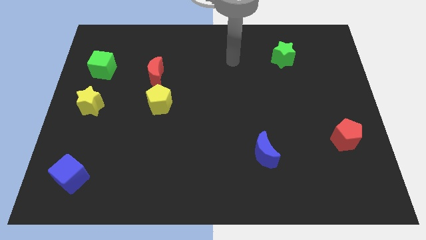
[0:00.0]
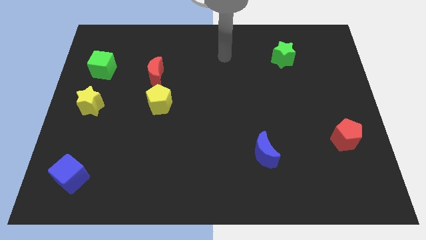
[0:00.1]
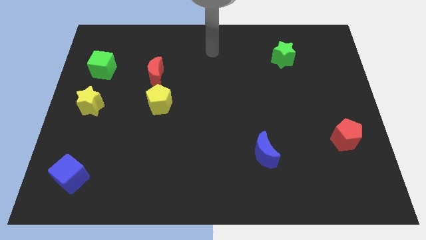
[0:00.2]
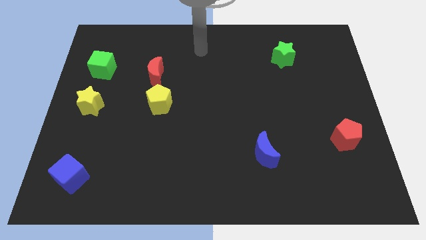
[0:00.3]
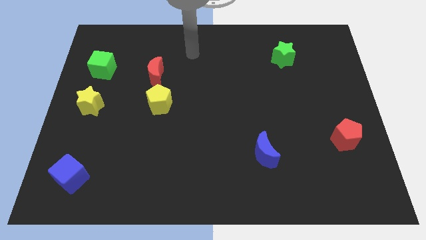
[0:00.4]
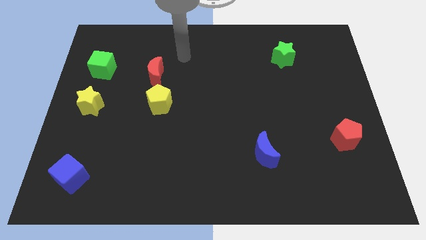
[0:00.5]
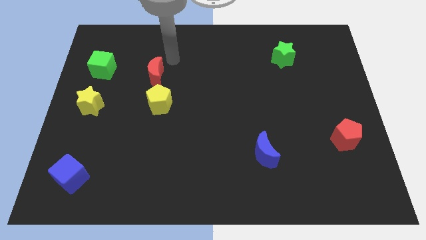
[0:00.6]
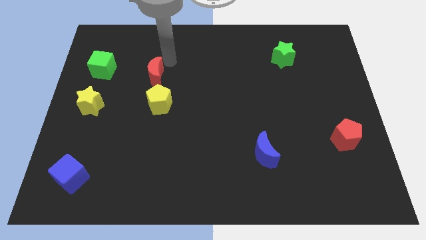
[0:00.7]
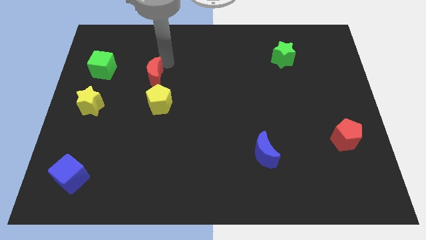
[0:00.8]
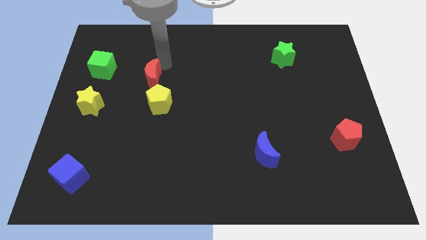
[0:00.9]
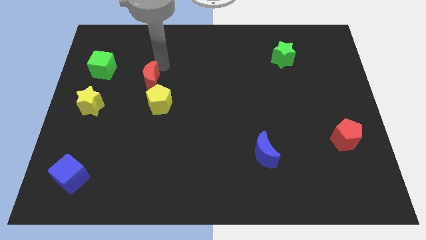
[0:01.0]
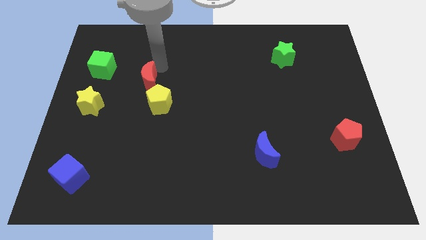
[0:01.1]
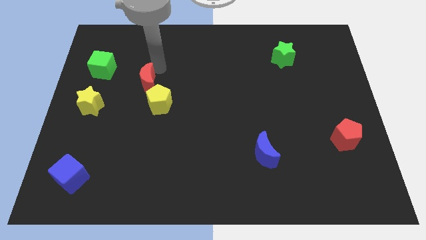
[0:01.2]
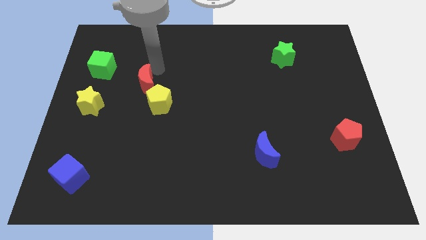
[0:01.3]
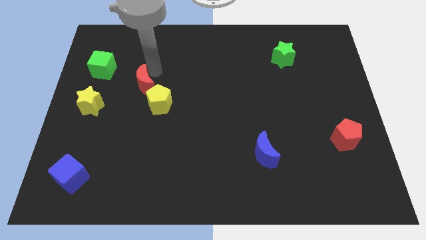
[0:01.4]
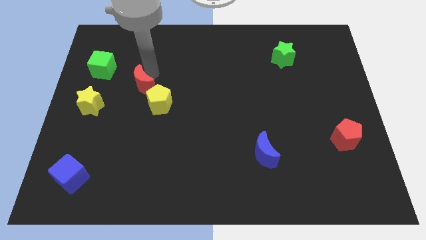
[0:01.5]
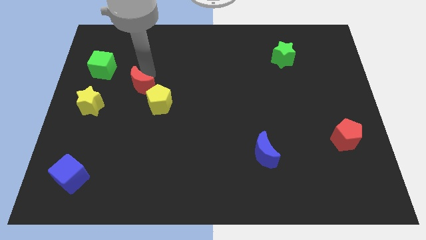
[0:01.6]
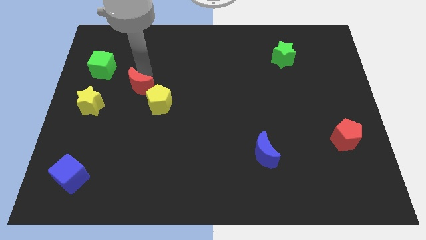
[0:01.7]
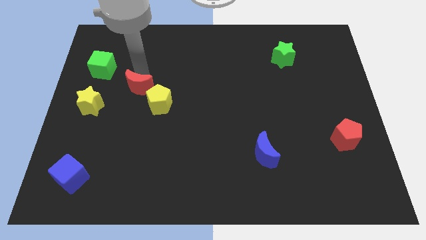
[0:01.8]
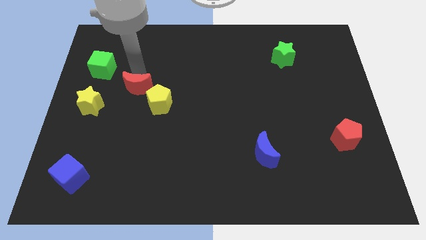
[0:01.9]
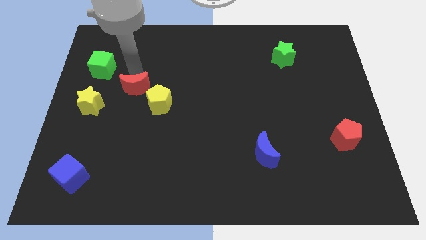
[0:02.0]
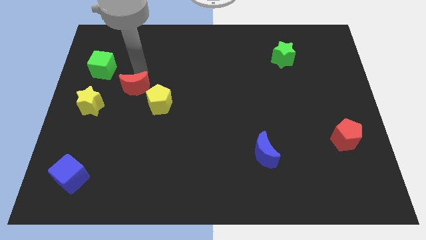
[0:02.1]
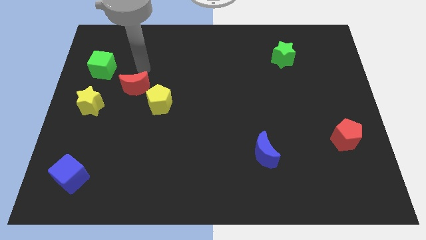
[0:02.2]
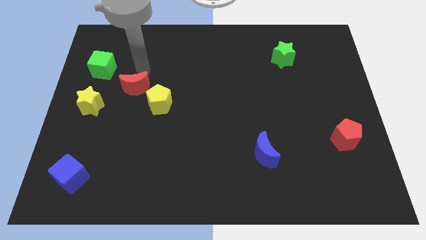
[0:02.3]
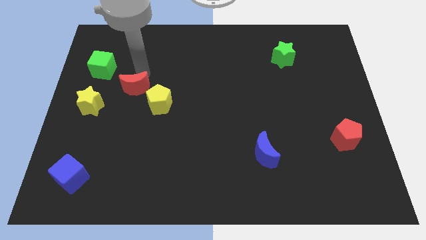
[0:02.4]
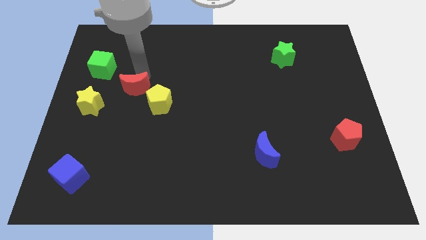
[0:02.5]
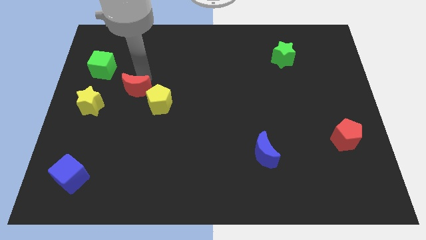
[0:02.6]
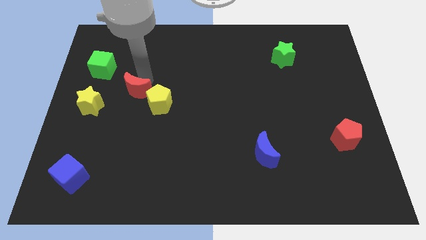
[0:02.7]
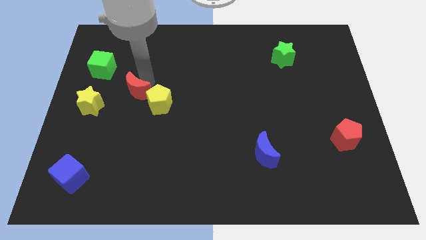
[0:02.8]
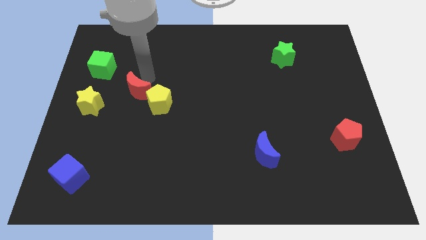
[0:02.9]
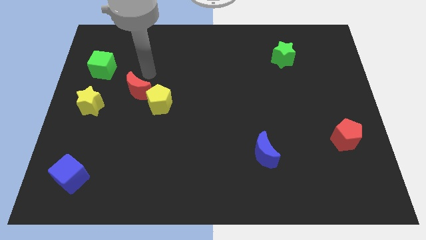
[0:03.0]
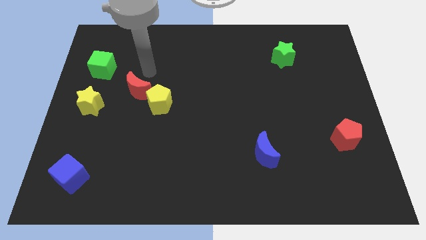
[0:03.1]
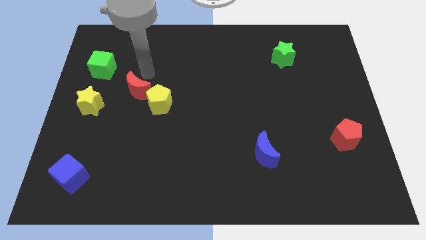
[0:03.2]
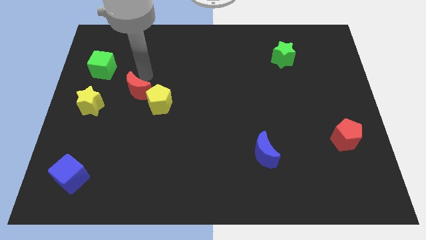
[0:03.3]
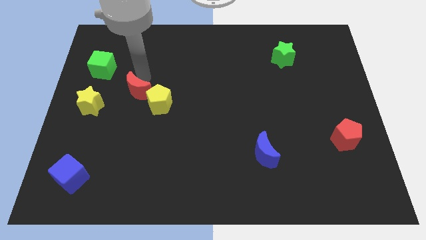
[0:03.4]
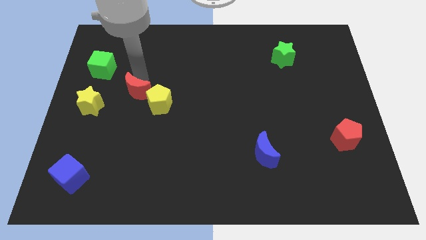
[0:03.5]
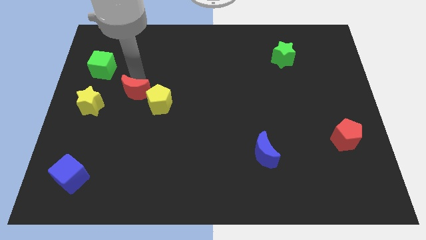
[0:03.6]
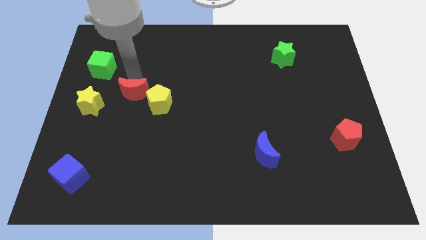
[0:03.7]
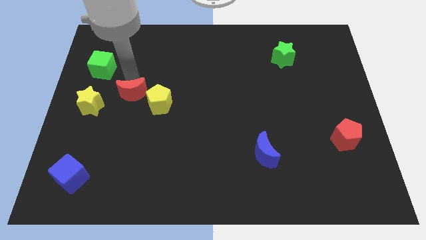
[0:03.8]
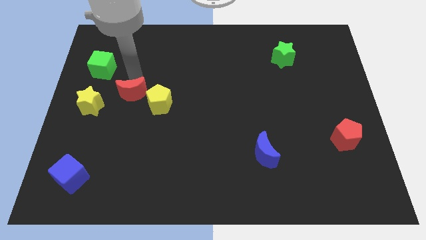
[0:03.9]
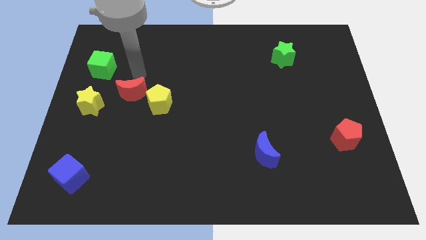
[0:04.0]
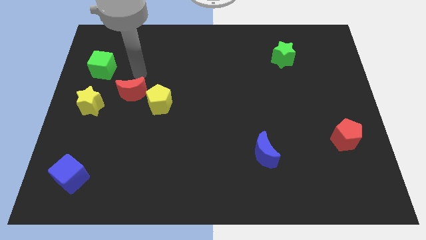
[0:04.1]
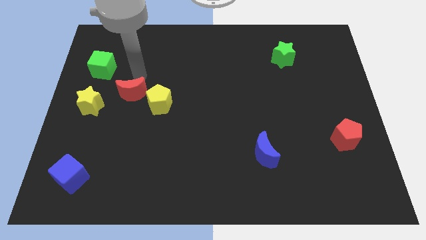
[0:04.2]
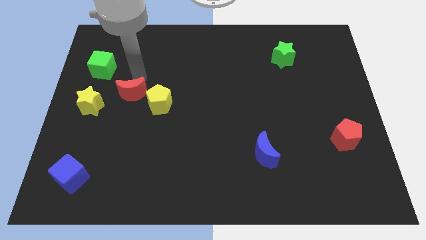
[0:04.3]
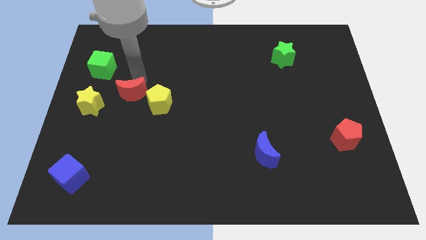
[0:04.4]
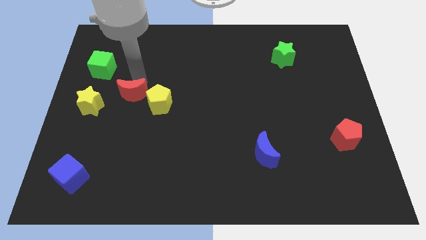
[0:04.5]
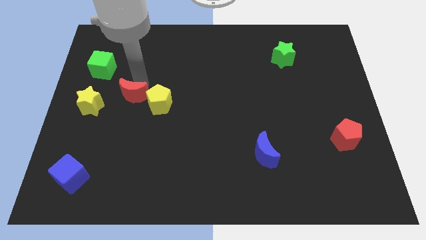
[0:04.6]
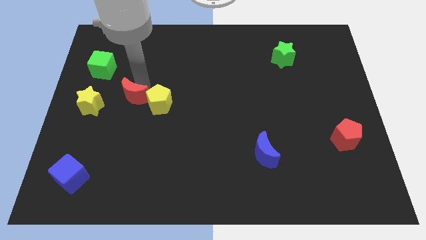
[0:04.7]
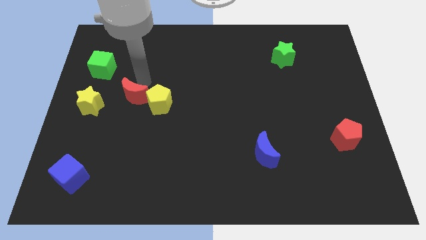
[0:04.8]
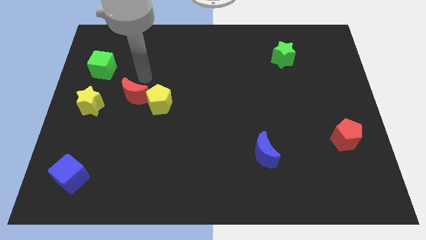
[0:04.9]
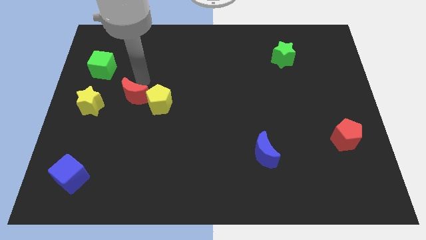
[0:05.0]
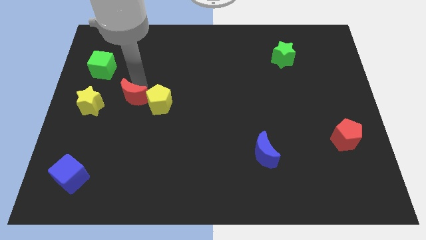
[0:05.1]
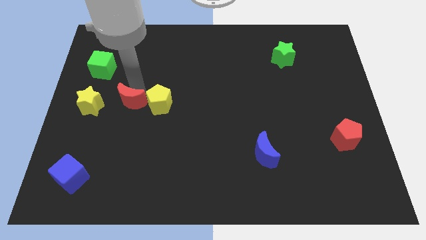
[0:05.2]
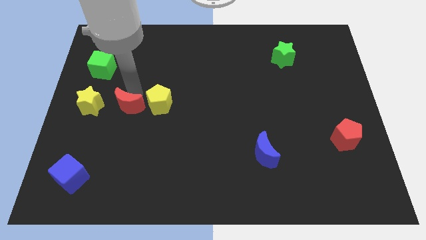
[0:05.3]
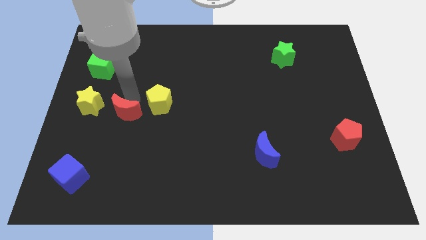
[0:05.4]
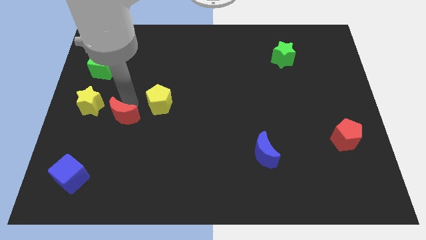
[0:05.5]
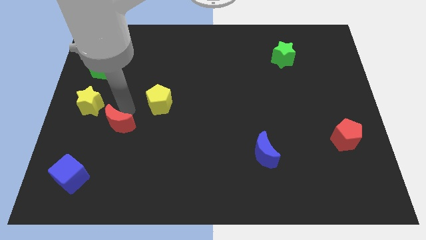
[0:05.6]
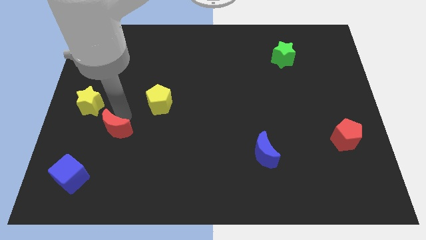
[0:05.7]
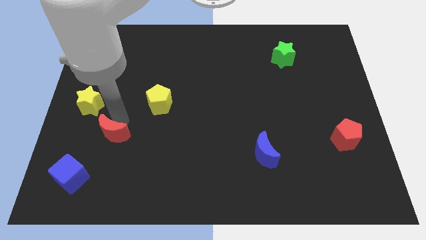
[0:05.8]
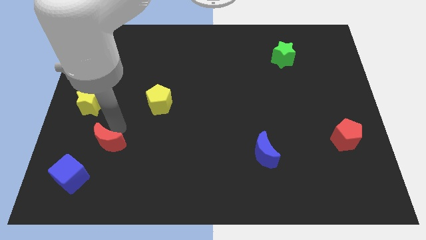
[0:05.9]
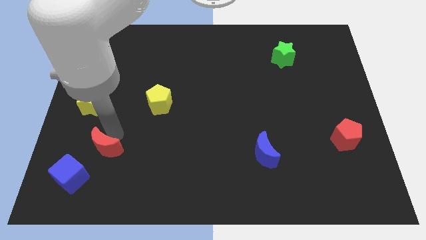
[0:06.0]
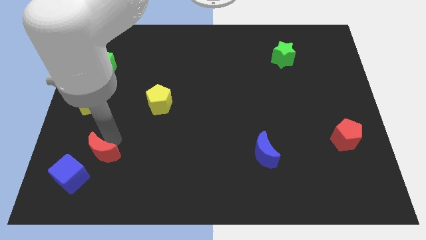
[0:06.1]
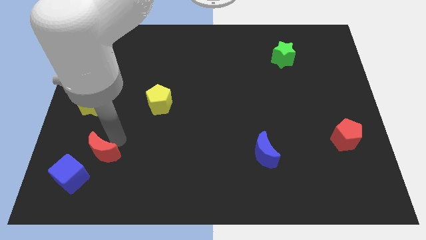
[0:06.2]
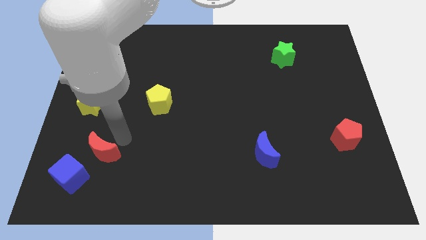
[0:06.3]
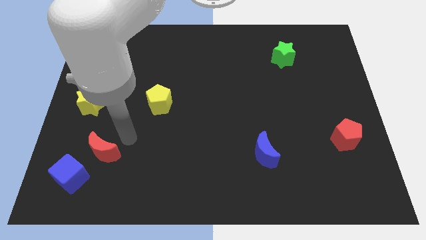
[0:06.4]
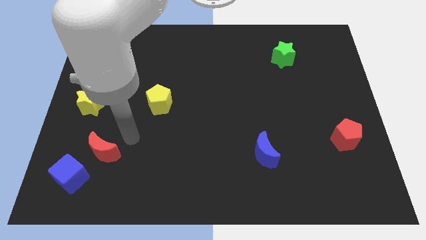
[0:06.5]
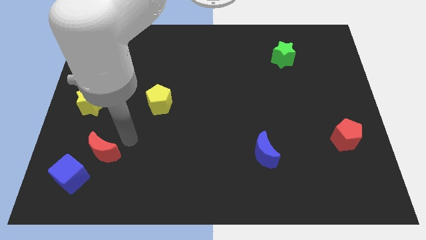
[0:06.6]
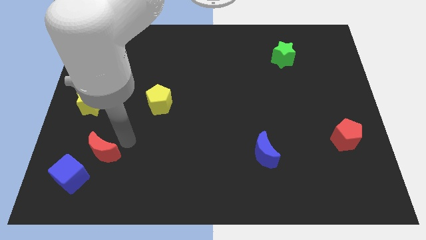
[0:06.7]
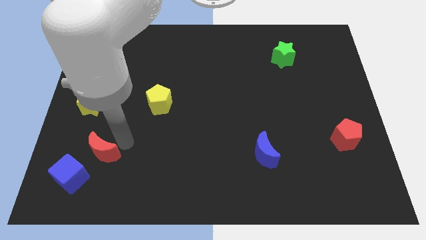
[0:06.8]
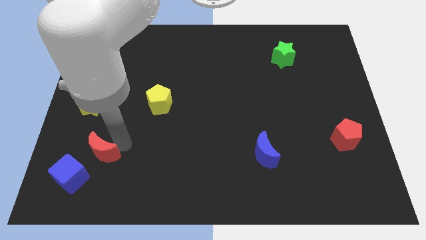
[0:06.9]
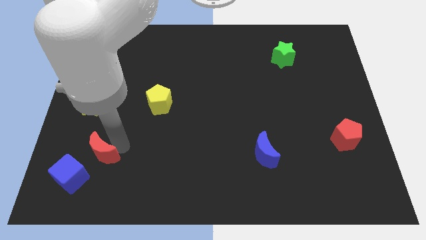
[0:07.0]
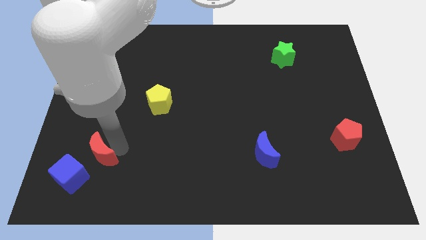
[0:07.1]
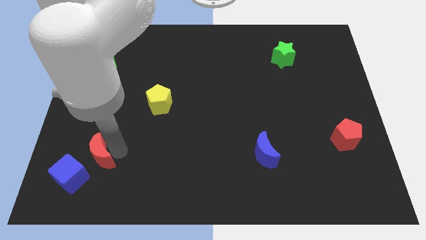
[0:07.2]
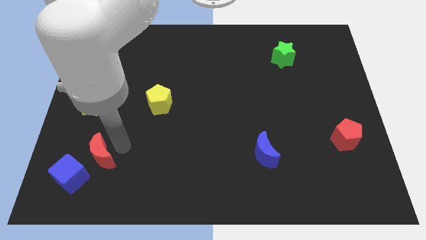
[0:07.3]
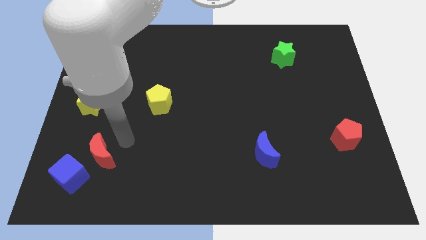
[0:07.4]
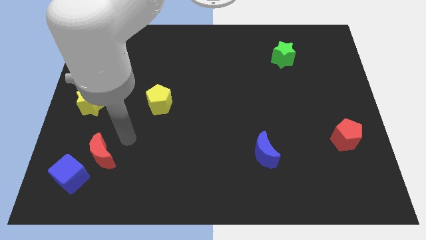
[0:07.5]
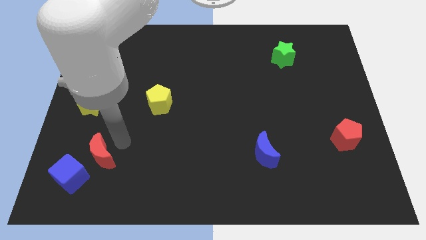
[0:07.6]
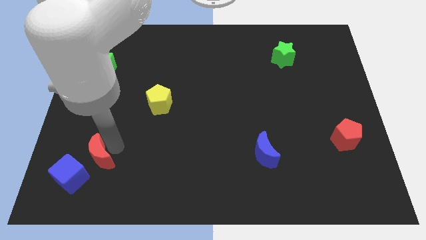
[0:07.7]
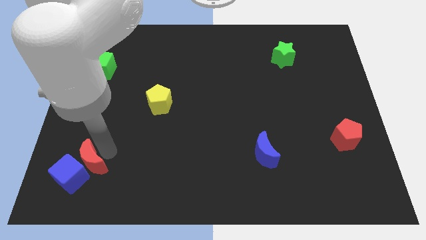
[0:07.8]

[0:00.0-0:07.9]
put the red moon close to the blue cube
